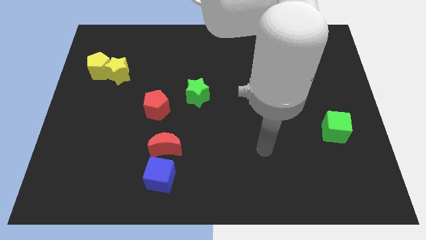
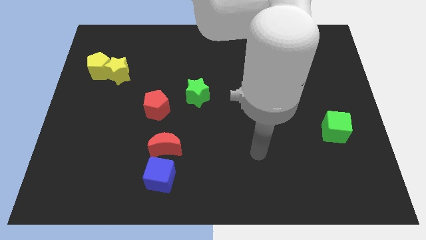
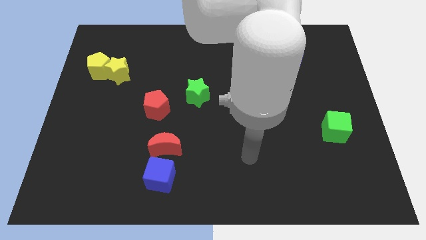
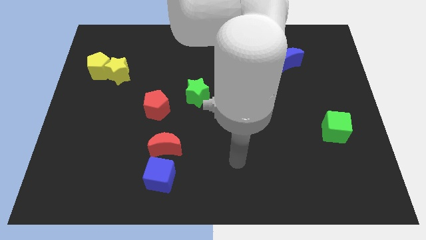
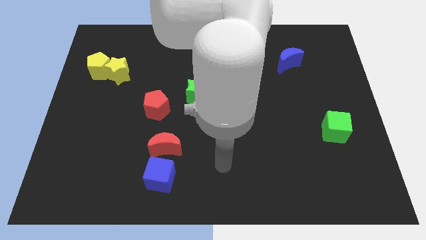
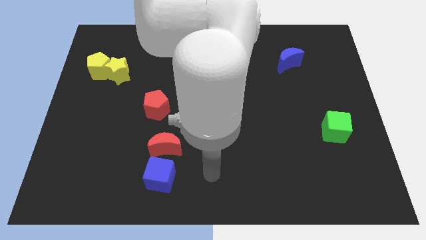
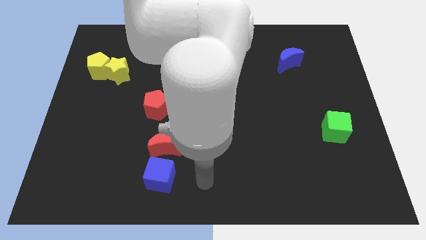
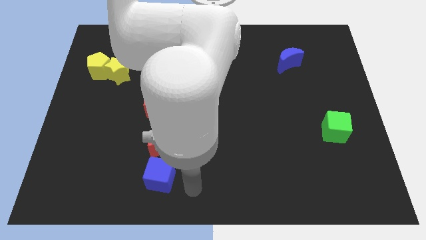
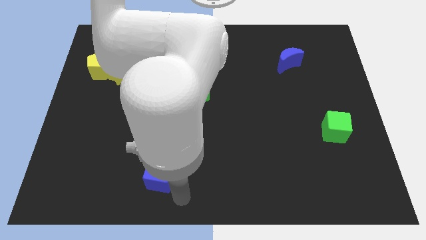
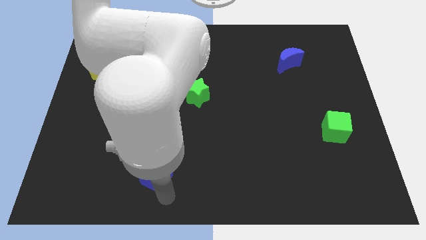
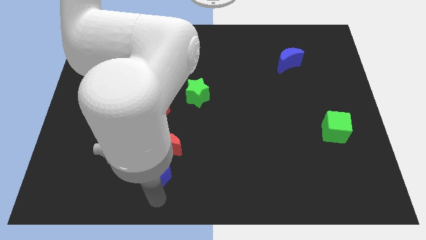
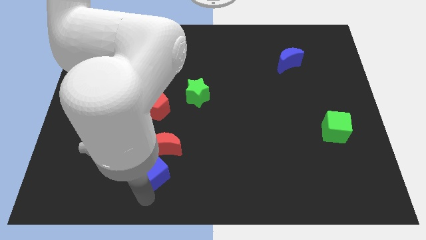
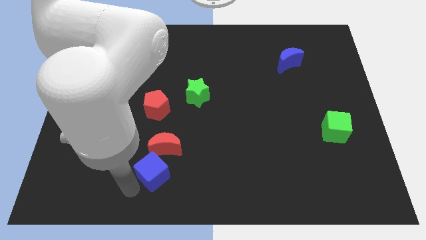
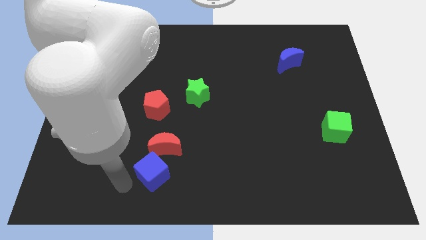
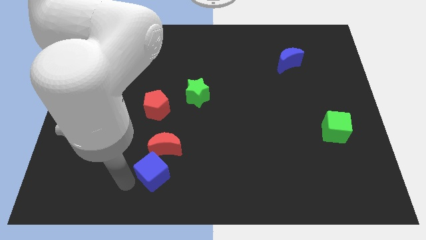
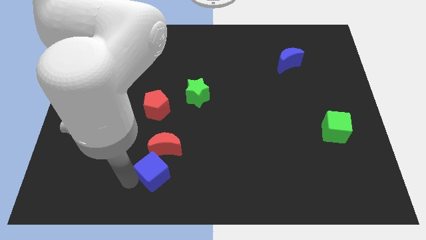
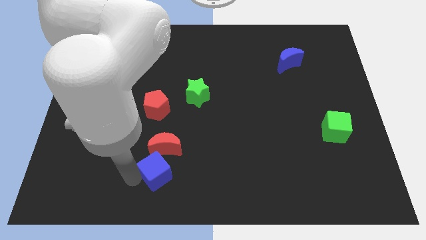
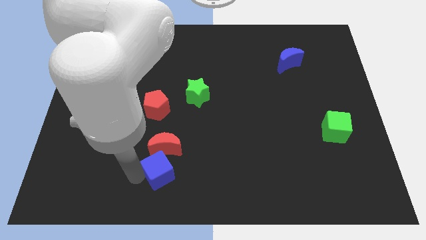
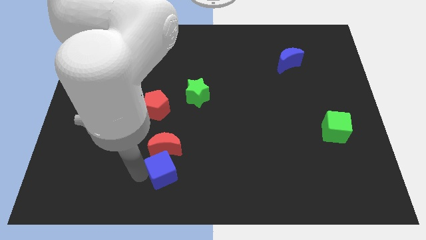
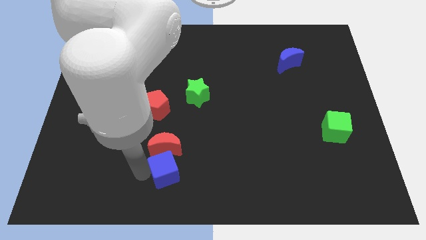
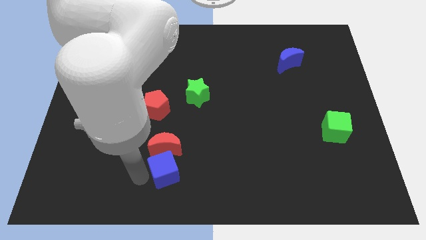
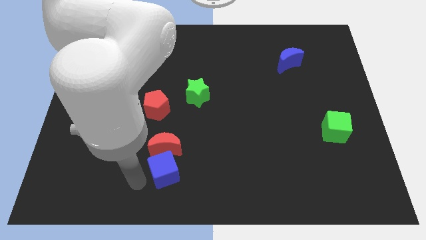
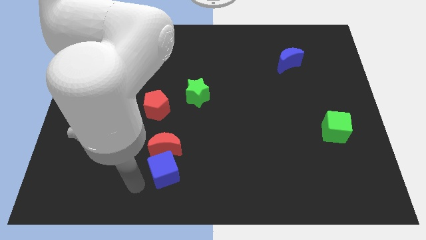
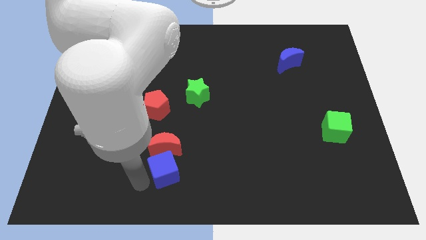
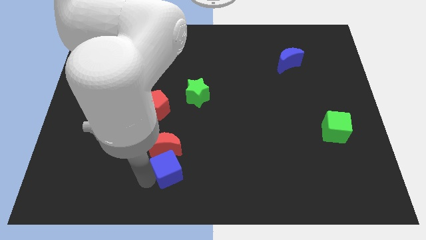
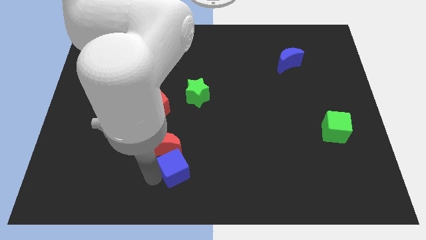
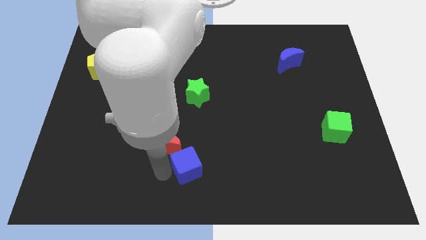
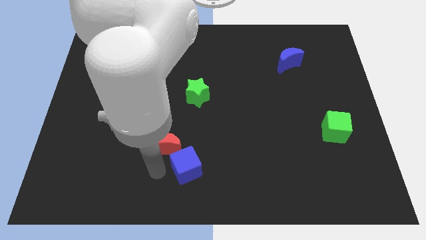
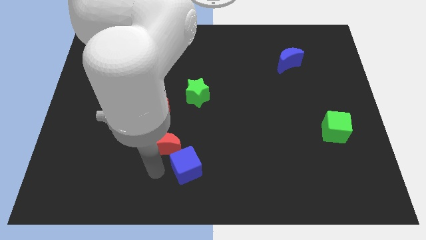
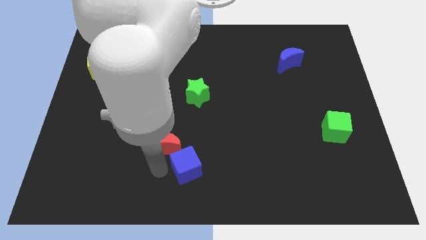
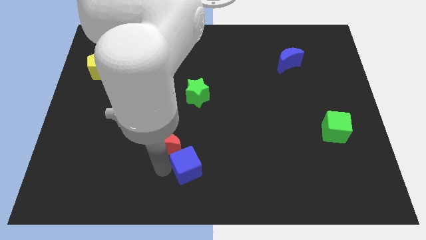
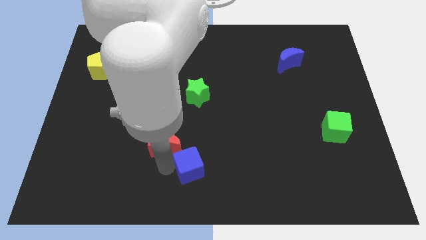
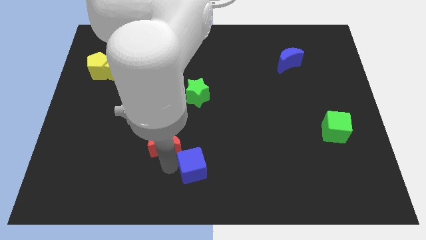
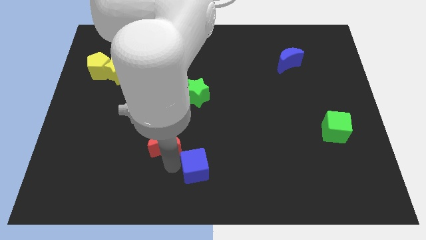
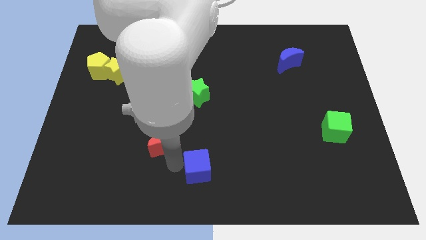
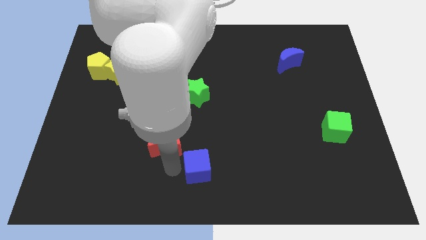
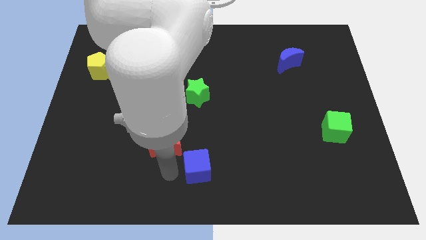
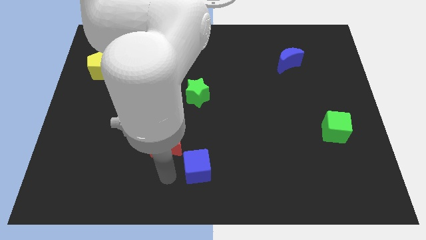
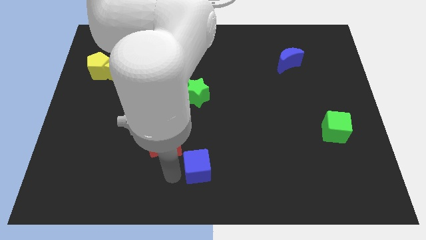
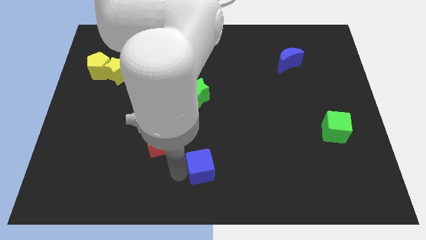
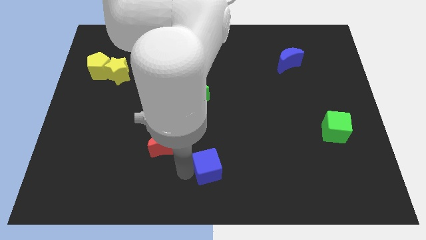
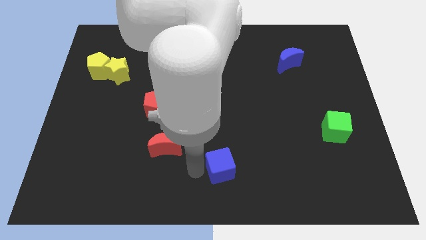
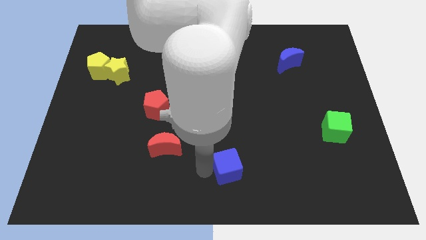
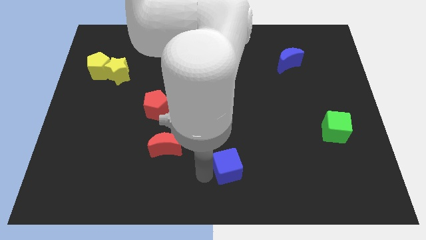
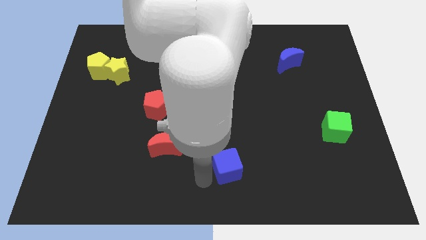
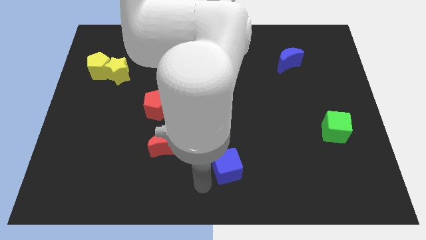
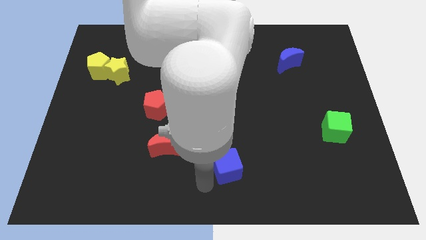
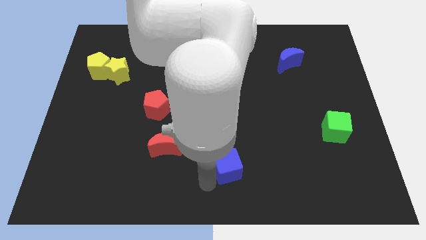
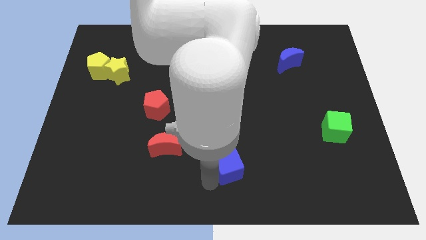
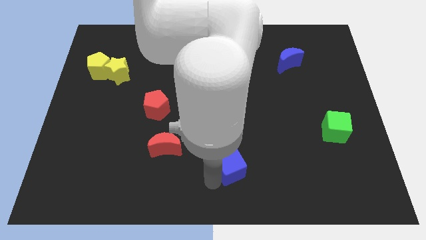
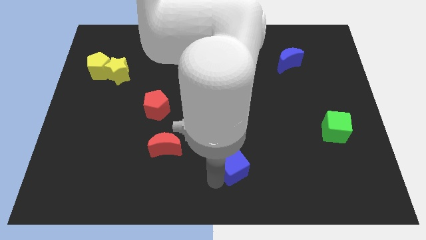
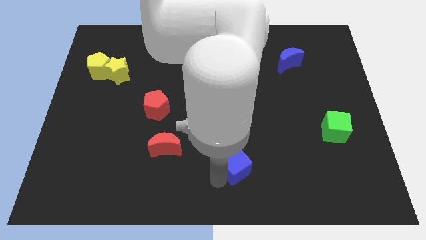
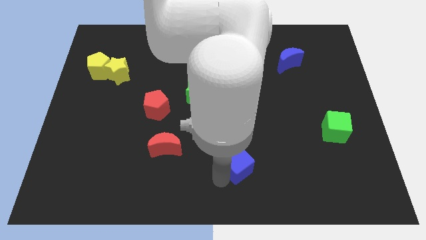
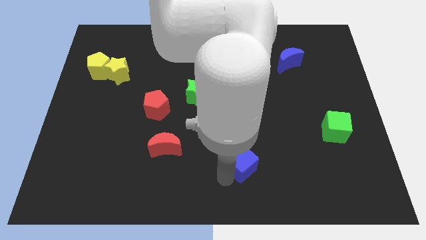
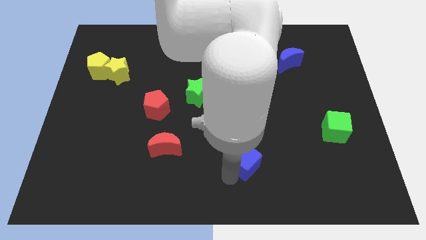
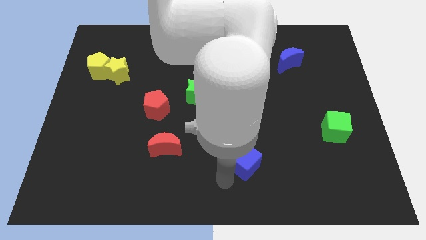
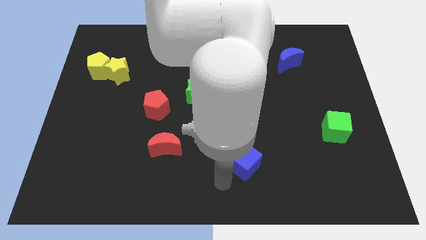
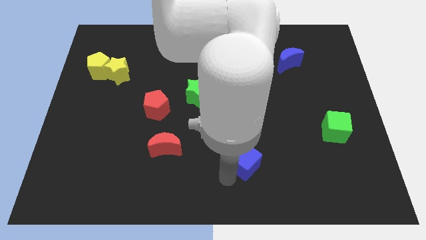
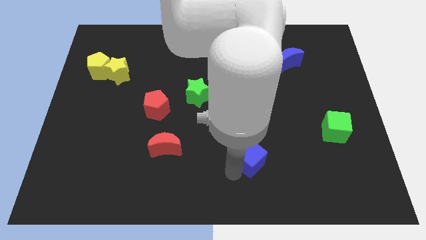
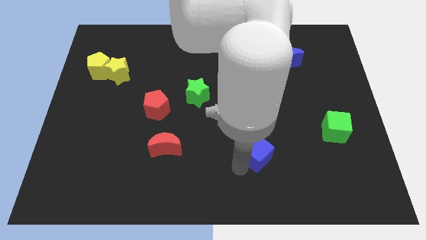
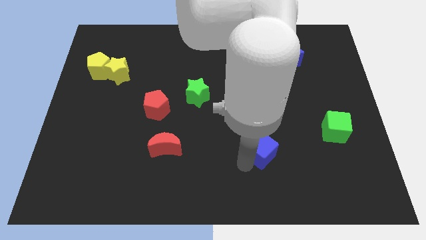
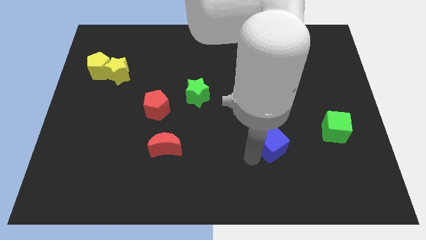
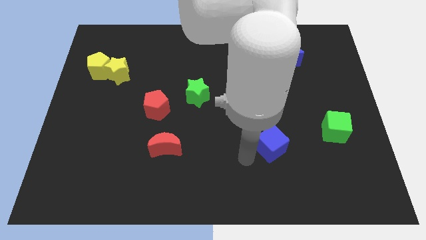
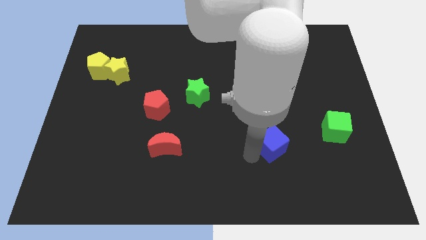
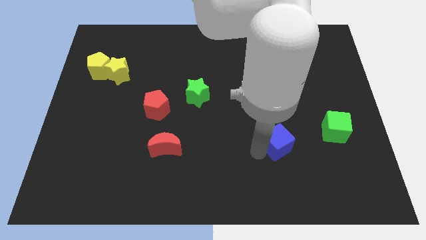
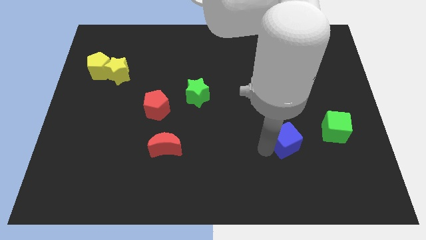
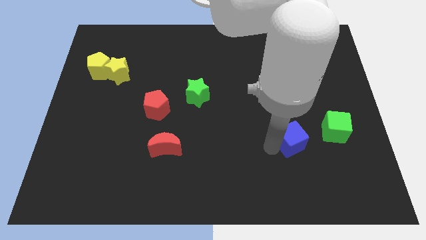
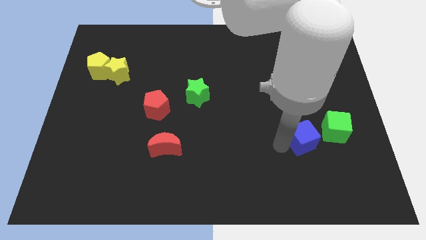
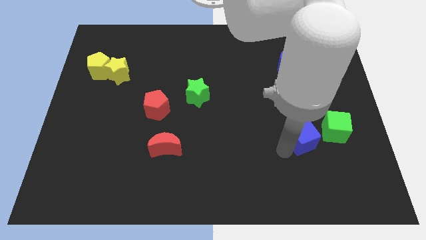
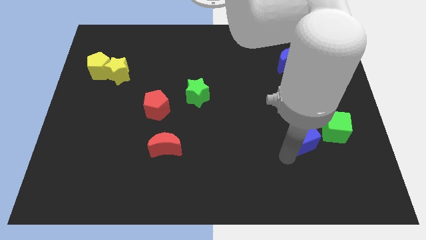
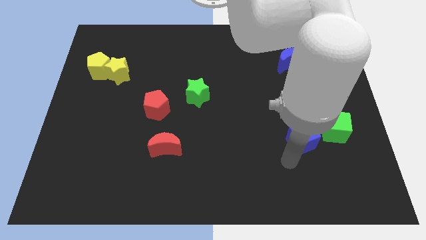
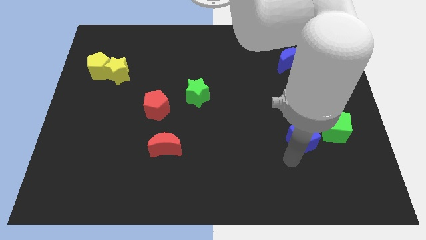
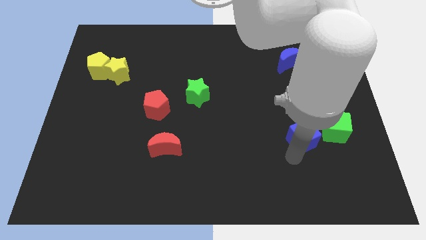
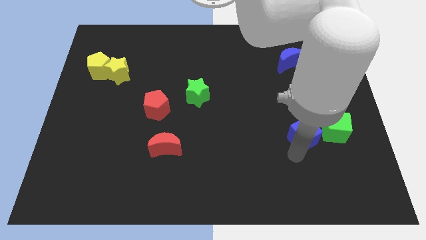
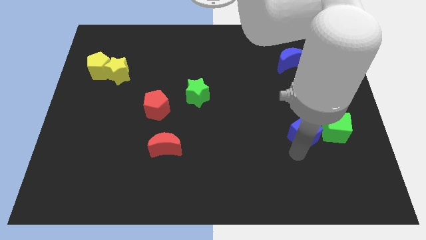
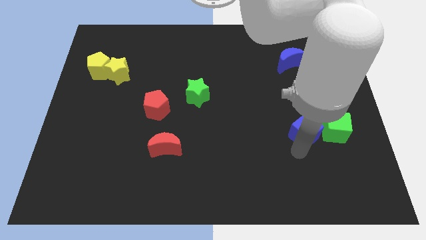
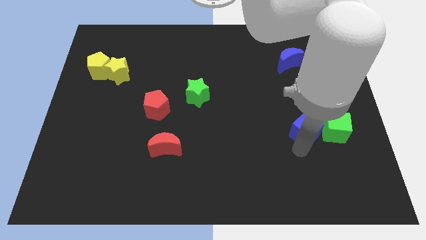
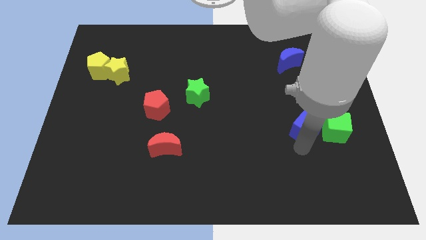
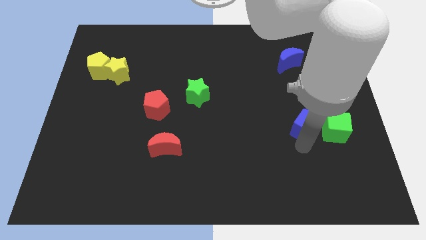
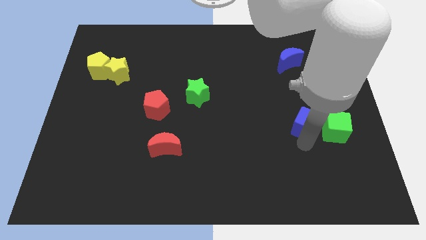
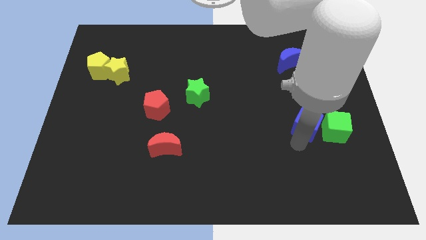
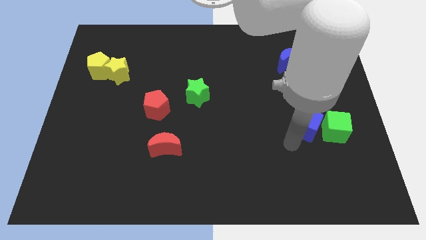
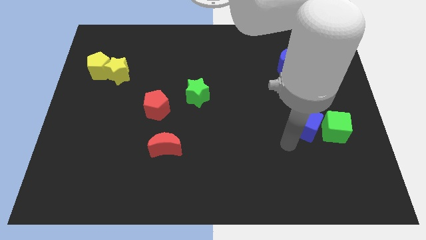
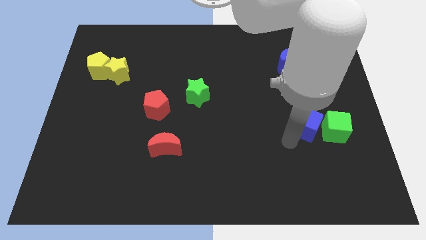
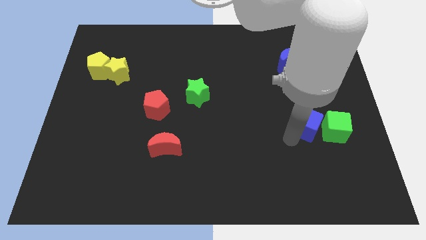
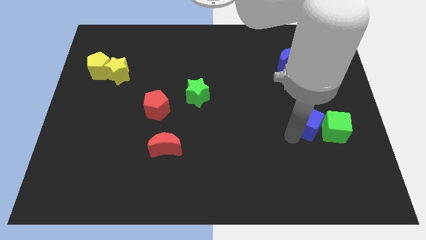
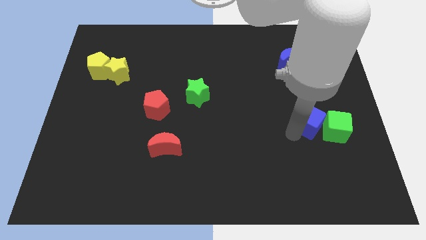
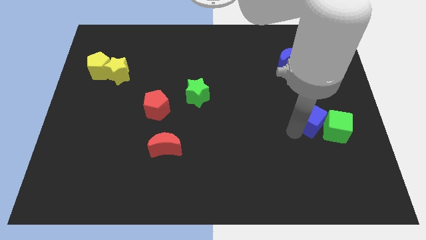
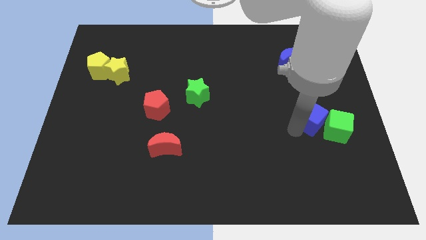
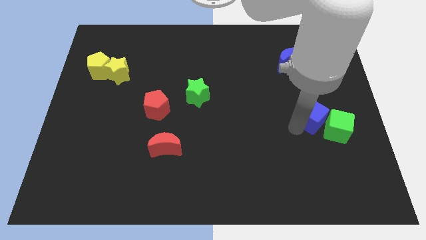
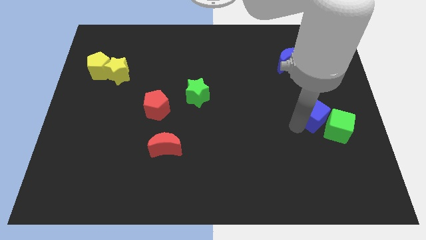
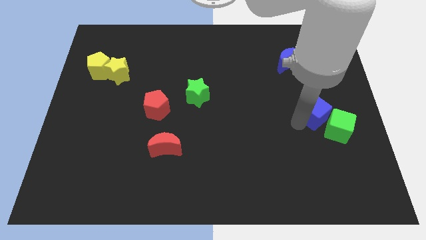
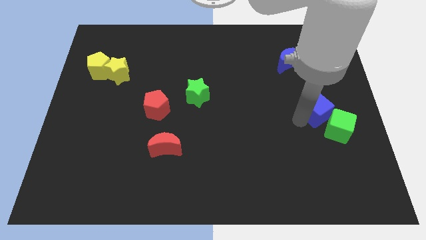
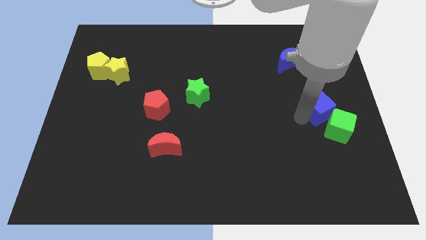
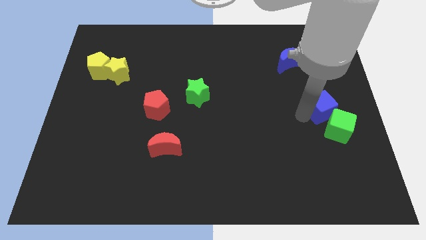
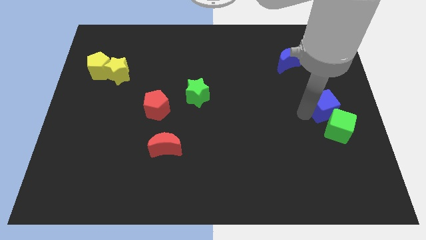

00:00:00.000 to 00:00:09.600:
put the blue cube to the right side of the board
